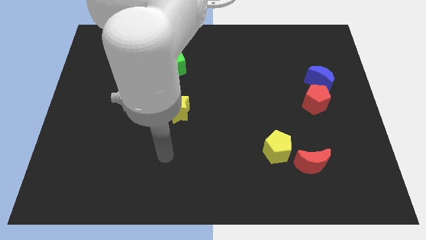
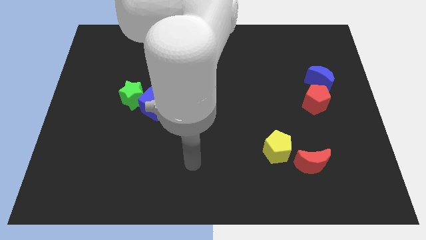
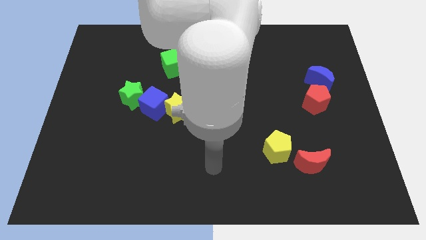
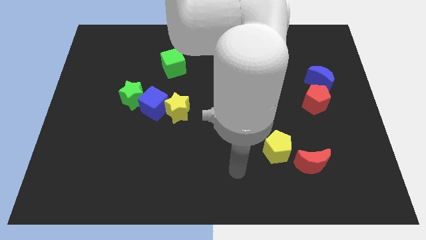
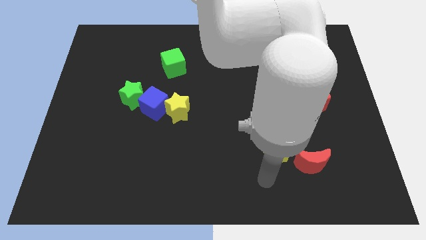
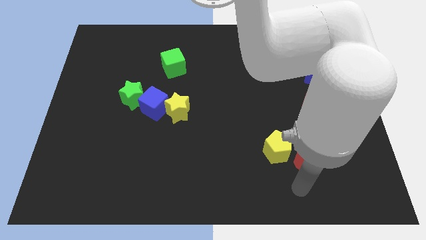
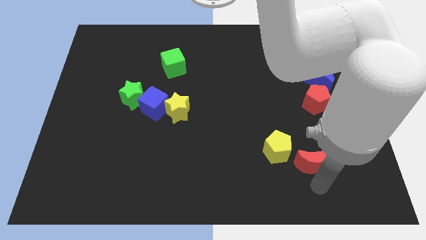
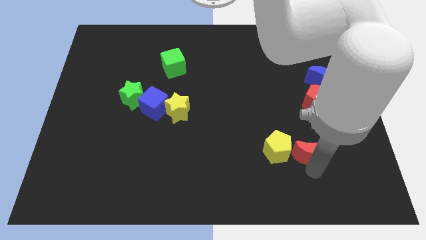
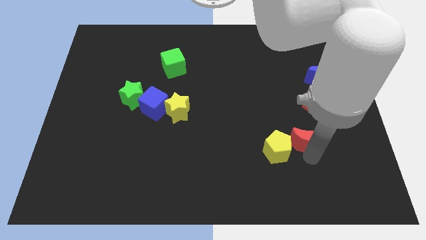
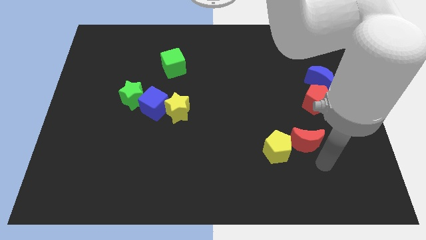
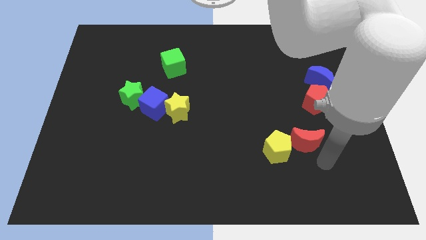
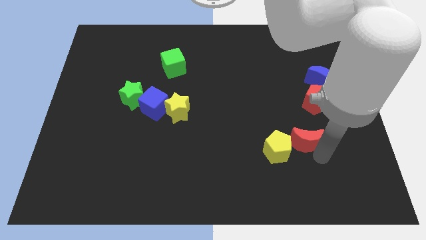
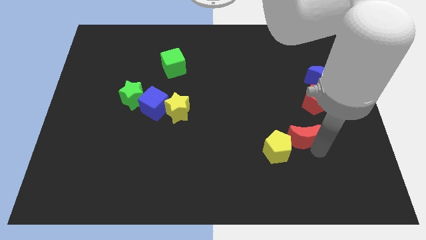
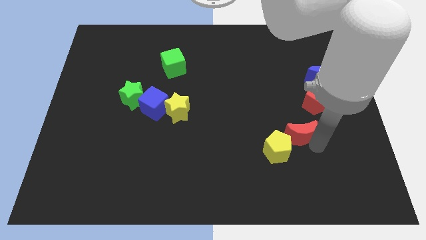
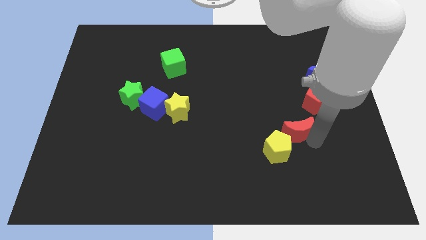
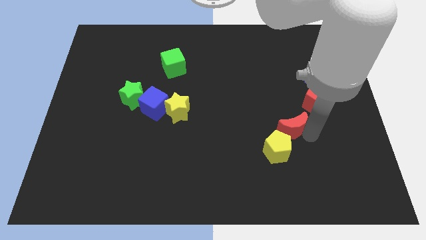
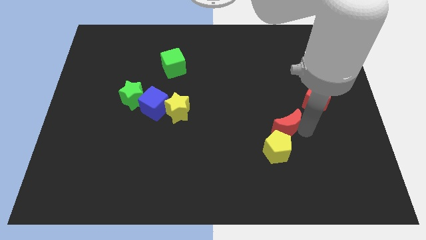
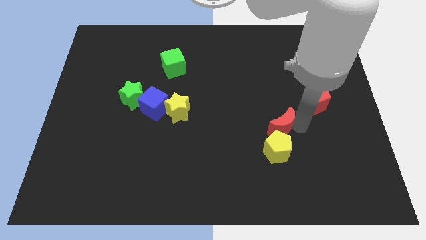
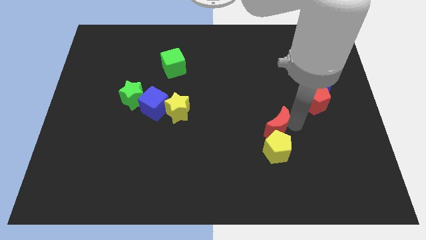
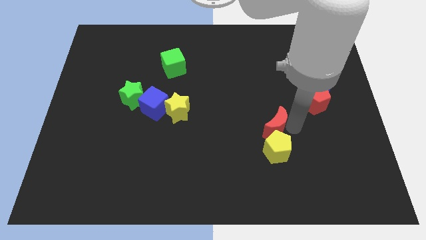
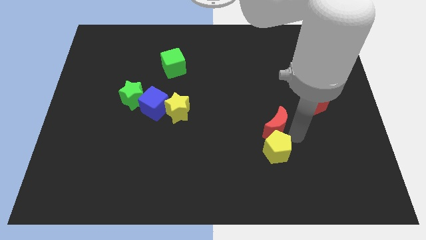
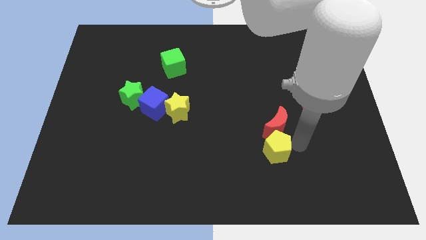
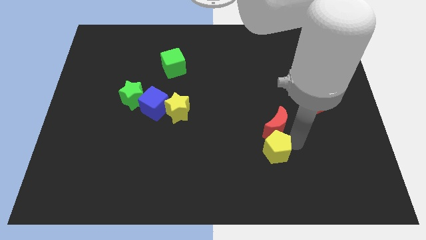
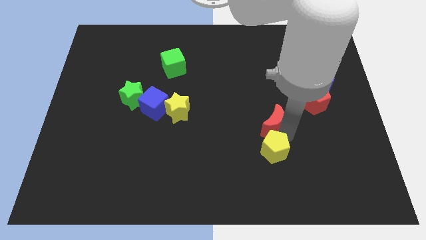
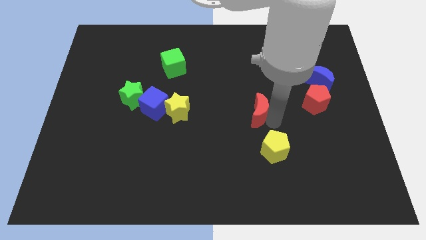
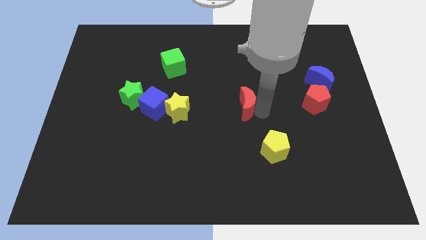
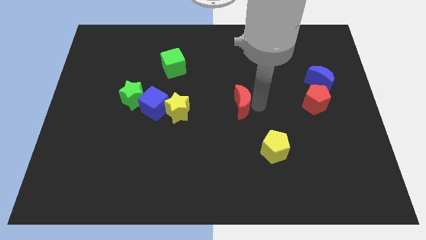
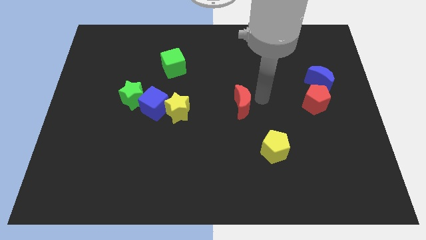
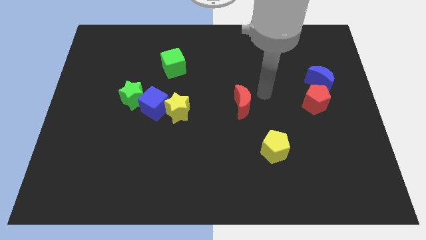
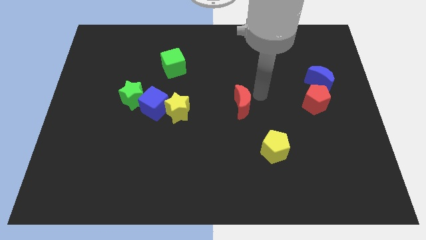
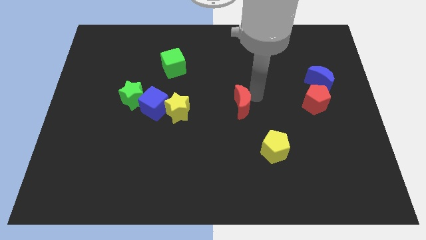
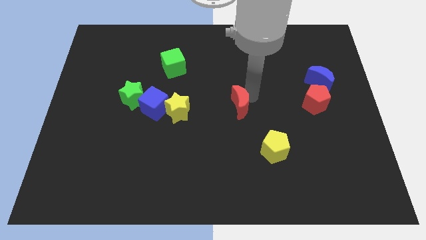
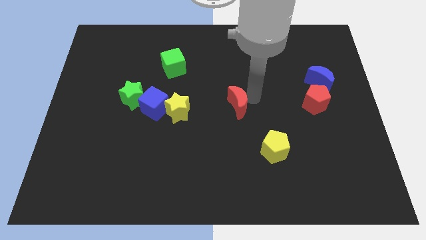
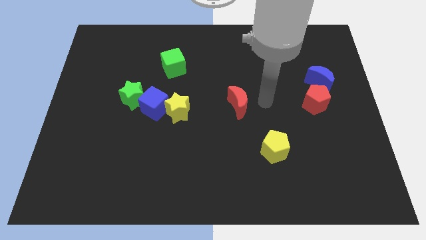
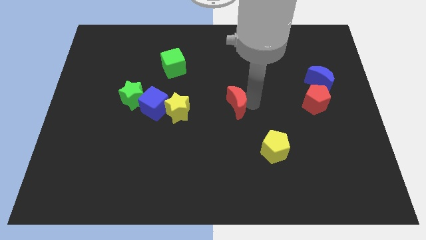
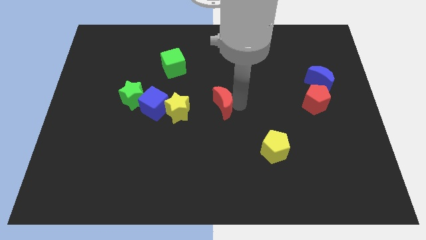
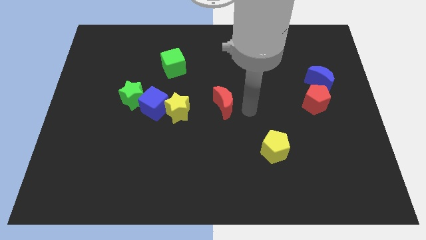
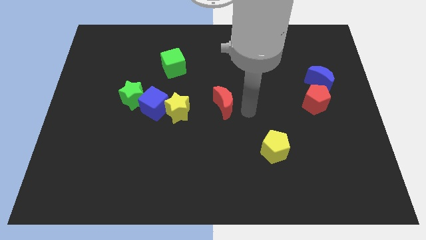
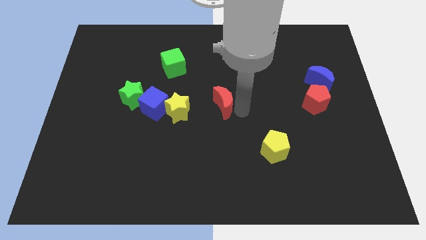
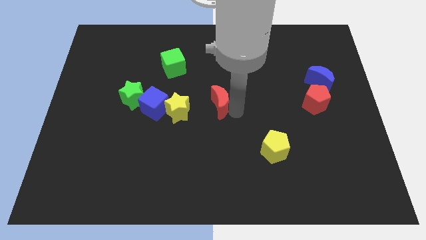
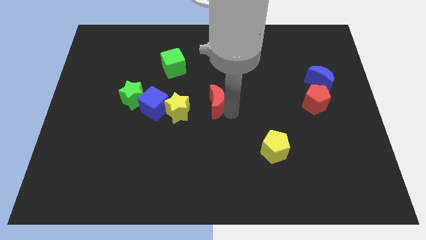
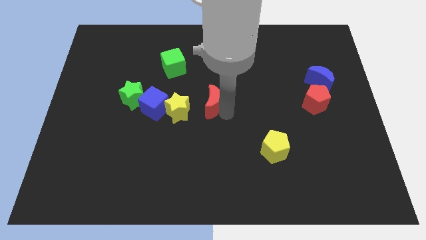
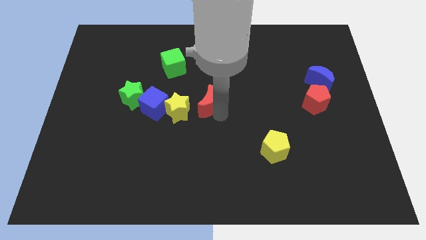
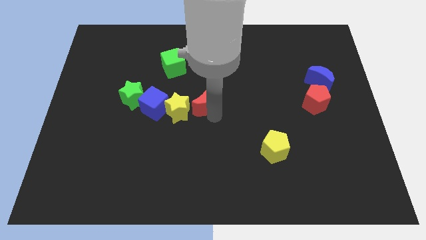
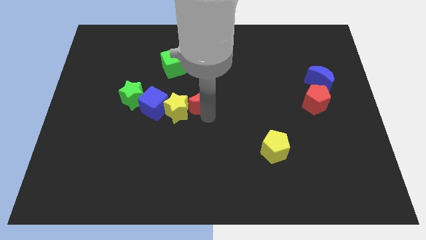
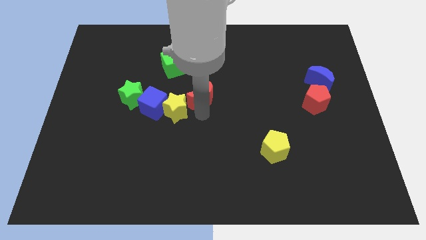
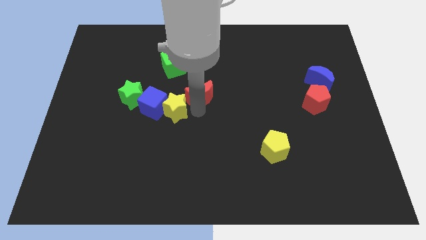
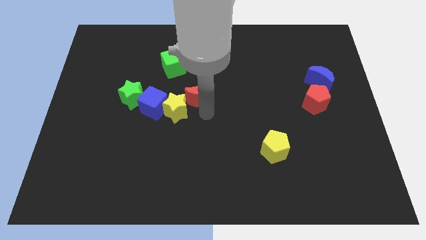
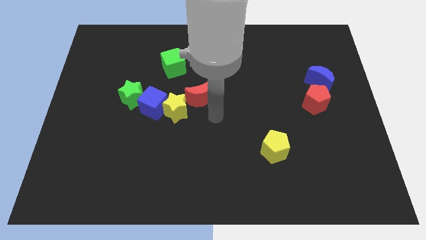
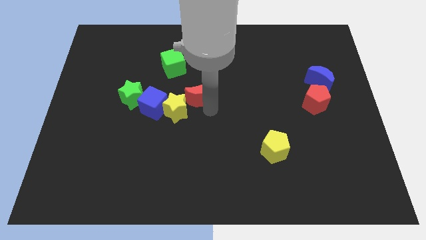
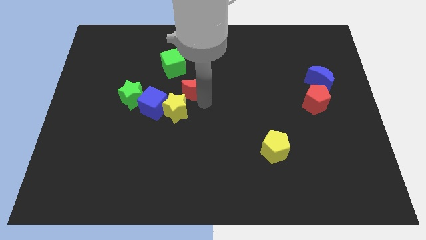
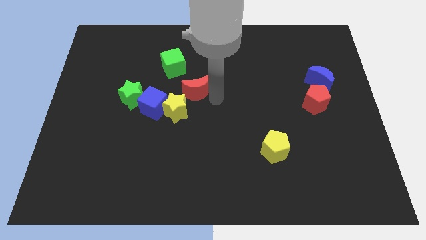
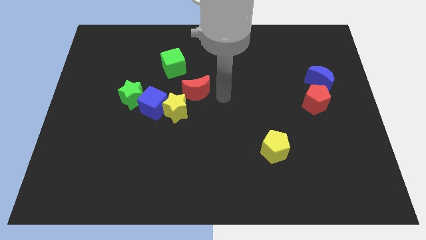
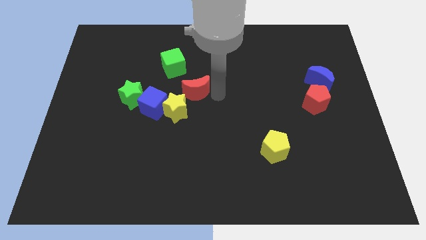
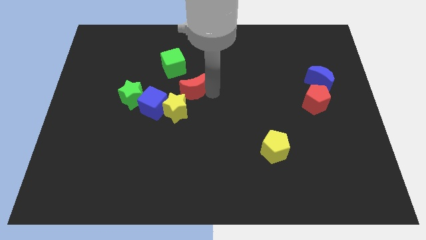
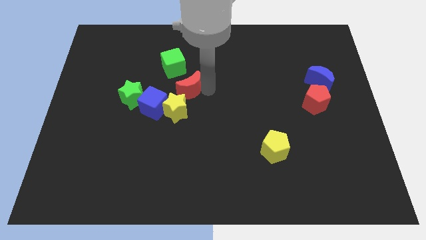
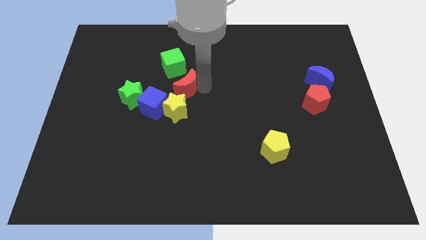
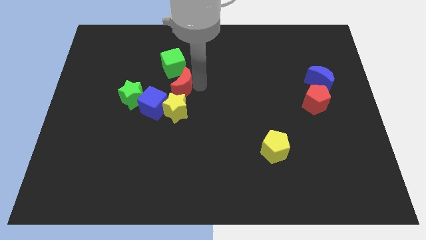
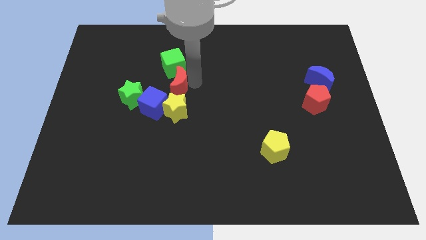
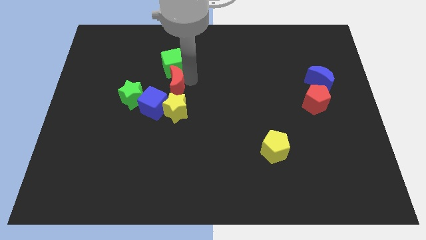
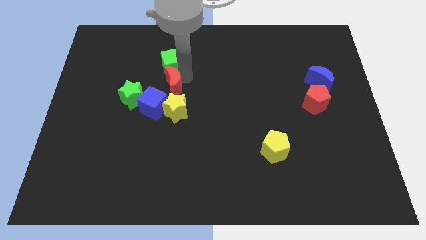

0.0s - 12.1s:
slide the red moon to the top left side of the yellow star
